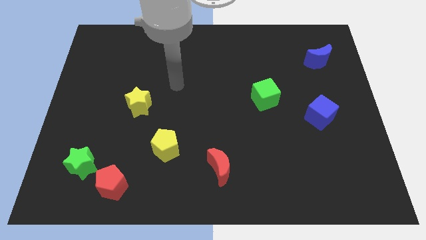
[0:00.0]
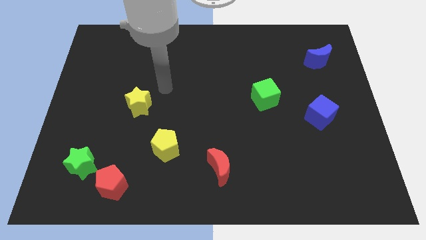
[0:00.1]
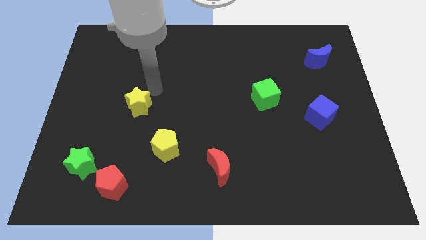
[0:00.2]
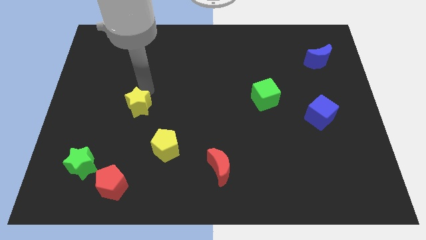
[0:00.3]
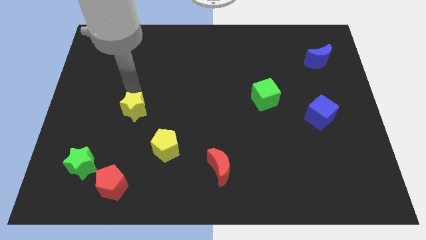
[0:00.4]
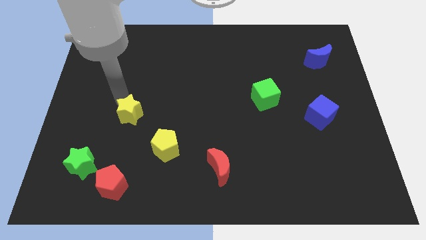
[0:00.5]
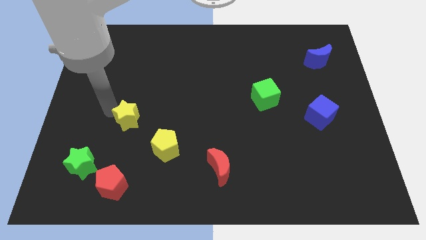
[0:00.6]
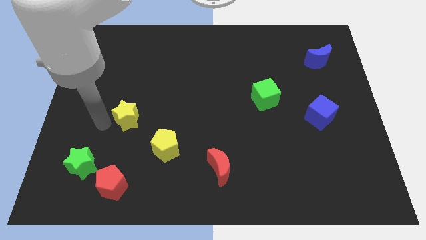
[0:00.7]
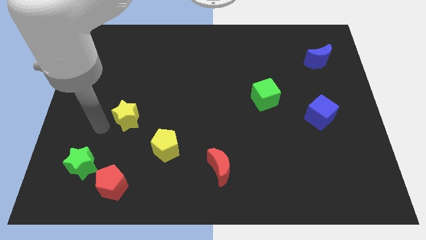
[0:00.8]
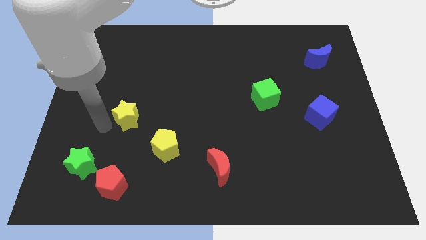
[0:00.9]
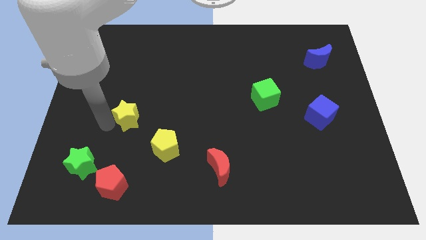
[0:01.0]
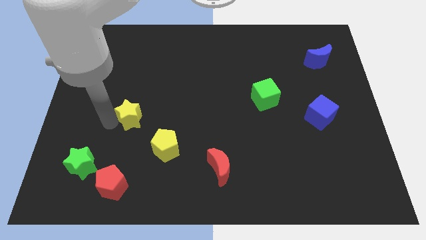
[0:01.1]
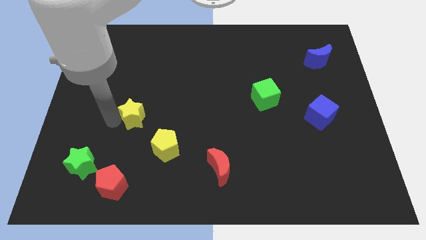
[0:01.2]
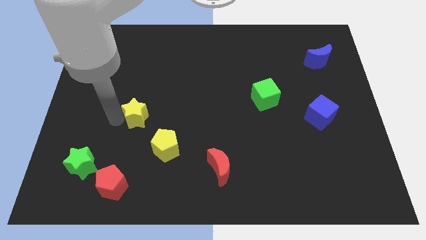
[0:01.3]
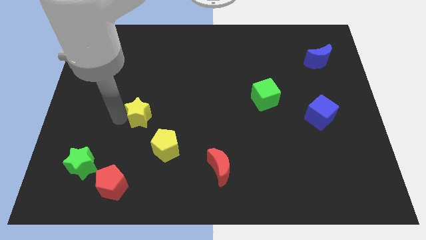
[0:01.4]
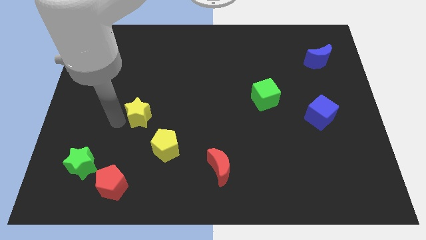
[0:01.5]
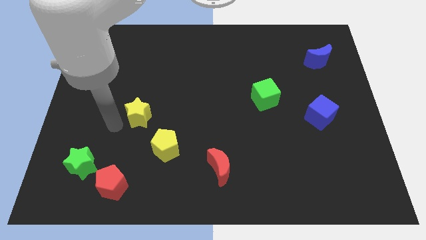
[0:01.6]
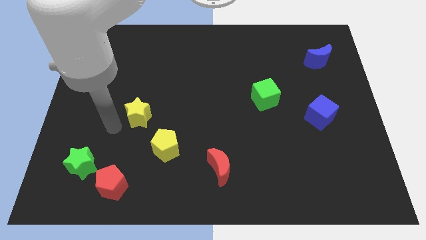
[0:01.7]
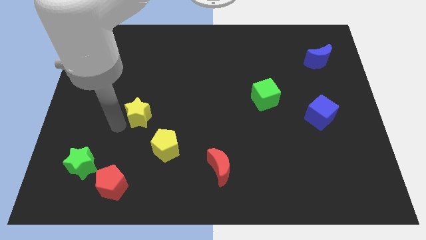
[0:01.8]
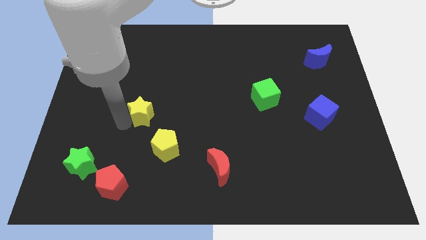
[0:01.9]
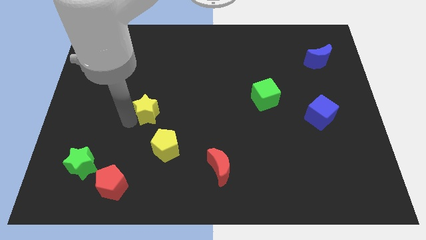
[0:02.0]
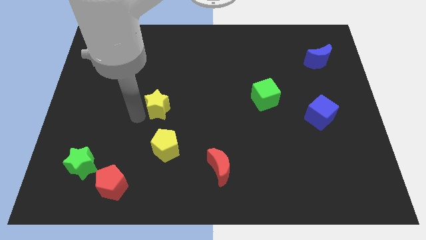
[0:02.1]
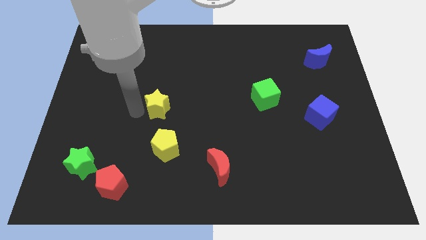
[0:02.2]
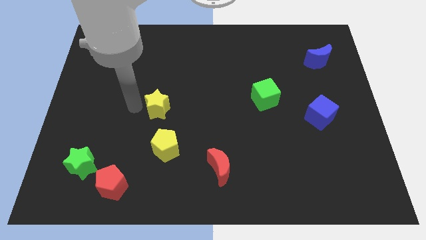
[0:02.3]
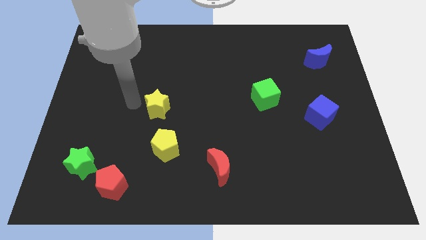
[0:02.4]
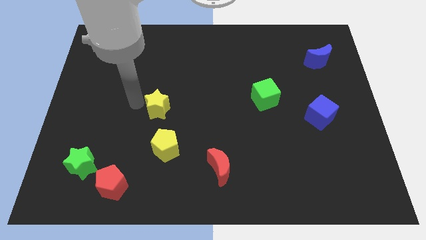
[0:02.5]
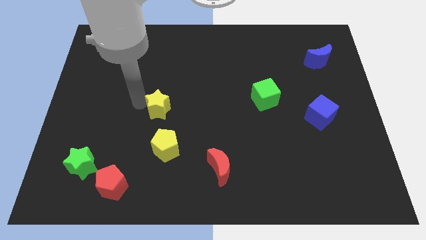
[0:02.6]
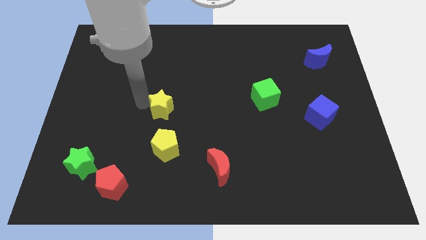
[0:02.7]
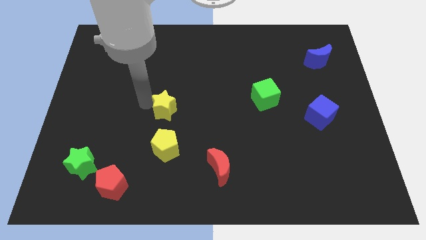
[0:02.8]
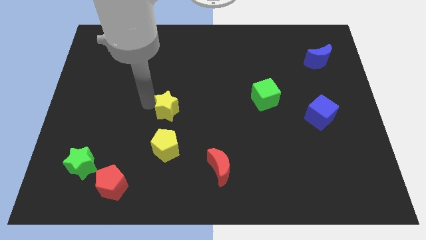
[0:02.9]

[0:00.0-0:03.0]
slide the yellow star a little bit to the right

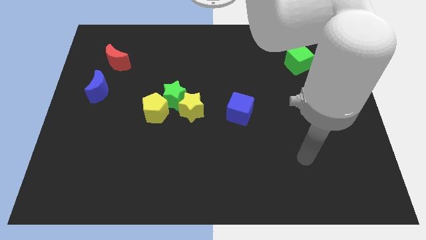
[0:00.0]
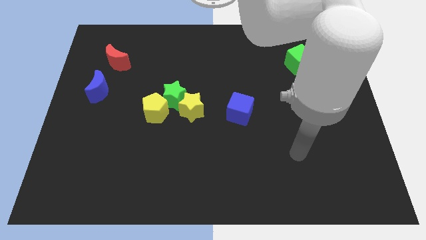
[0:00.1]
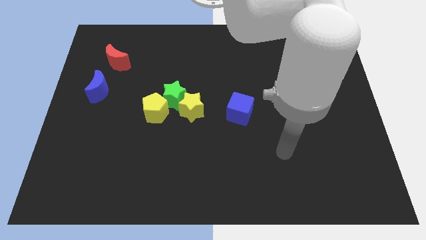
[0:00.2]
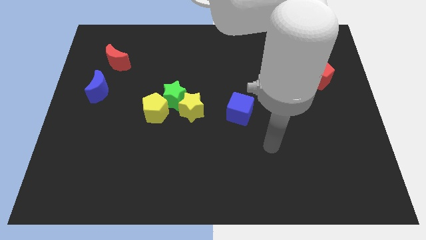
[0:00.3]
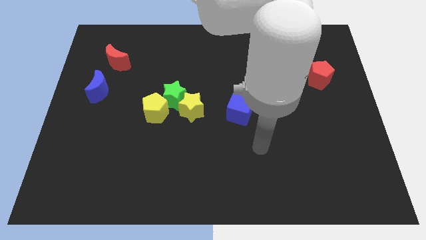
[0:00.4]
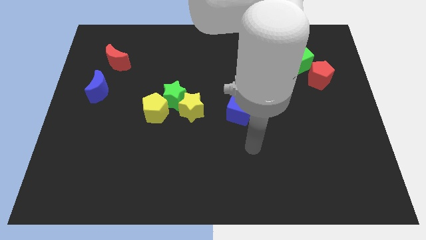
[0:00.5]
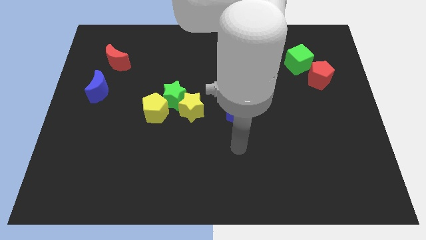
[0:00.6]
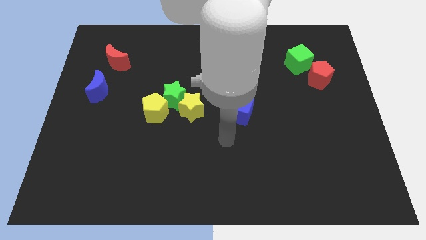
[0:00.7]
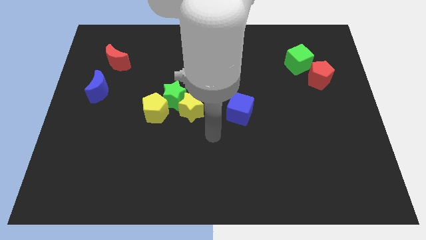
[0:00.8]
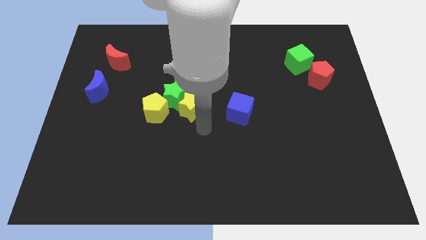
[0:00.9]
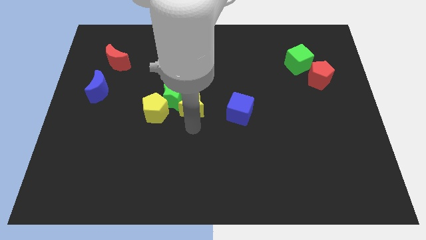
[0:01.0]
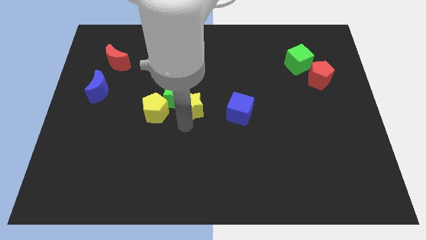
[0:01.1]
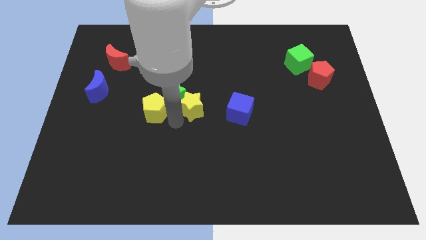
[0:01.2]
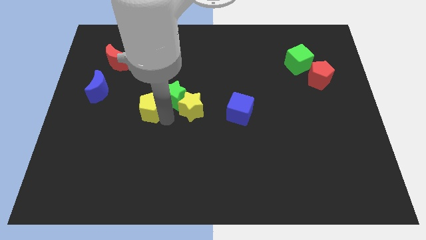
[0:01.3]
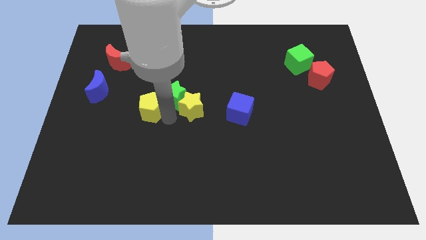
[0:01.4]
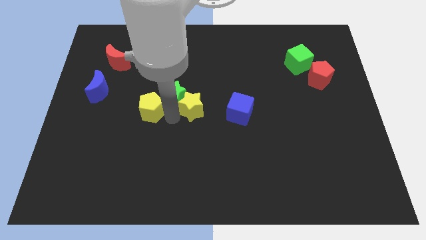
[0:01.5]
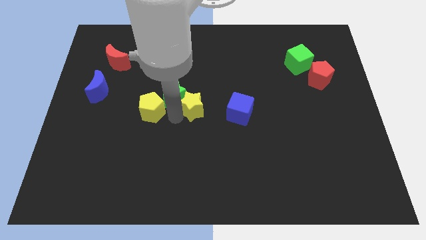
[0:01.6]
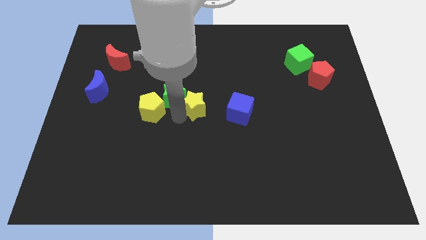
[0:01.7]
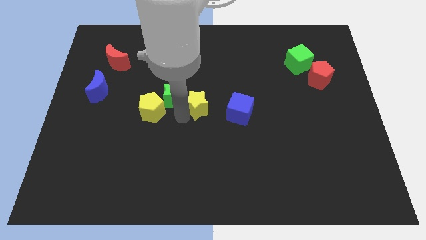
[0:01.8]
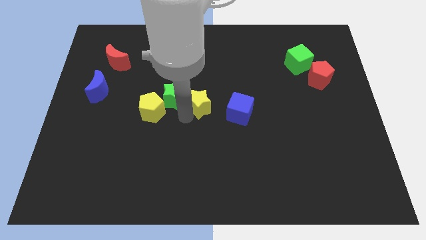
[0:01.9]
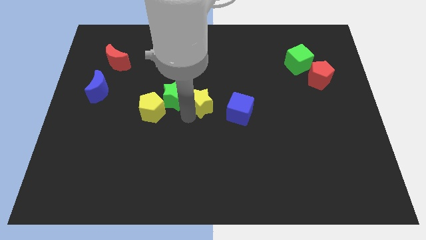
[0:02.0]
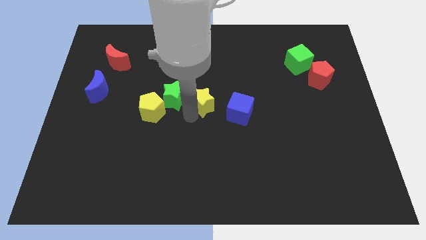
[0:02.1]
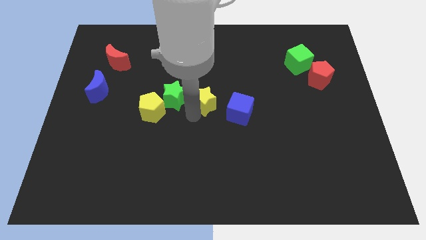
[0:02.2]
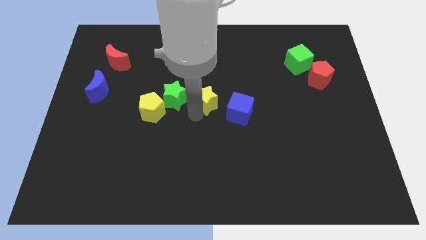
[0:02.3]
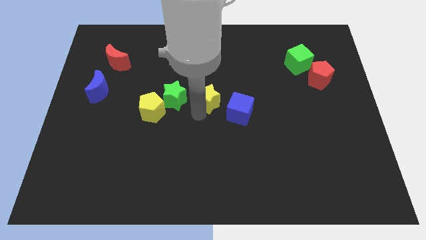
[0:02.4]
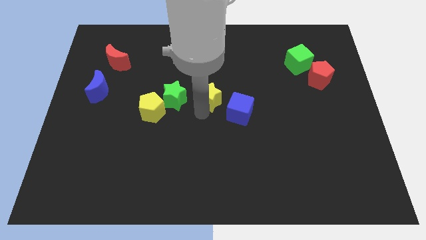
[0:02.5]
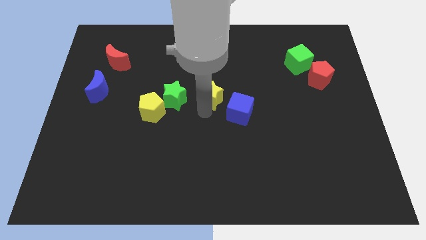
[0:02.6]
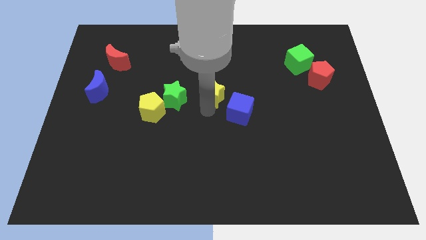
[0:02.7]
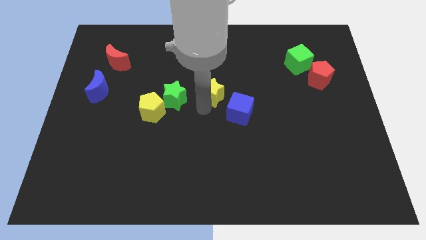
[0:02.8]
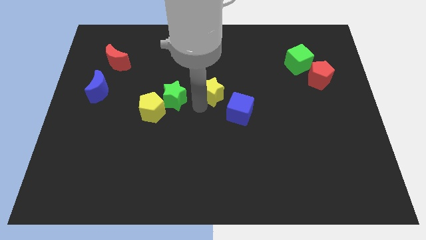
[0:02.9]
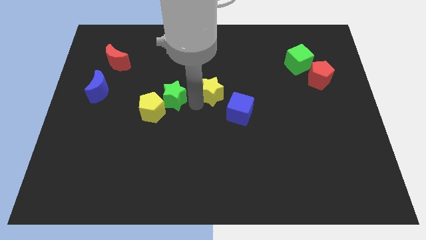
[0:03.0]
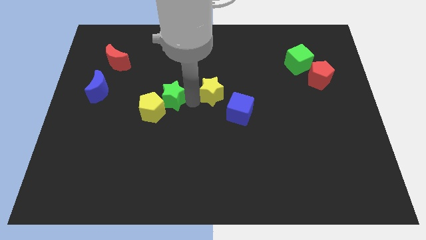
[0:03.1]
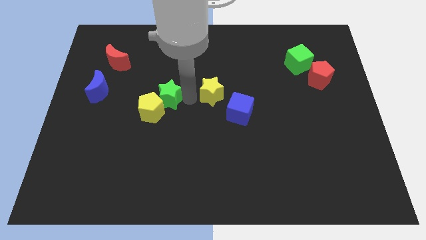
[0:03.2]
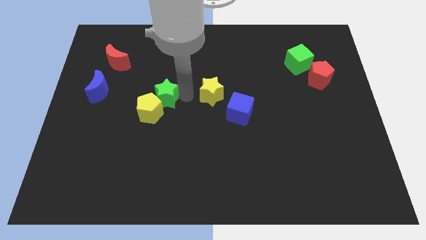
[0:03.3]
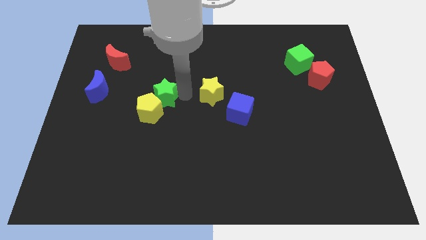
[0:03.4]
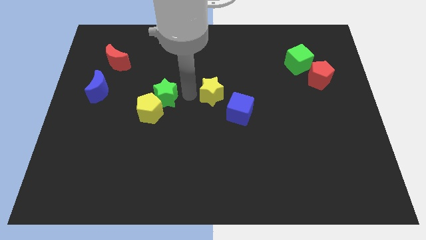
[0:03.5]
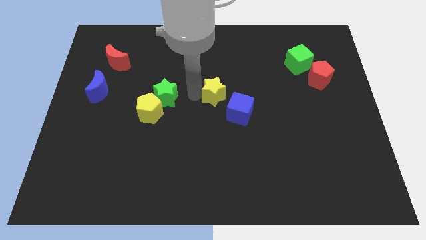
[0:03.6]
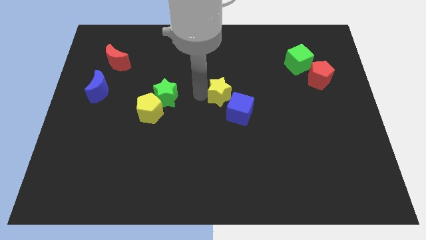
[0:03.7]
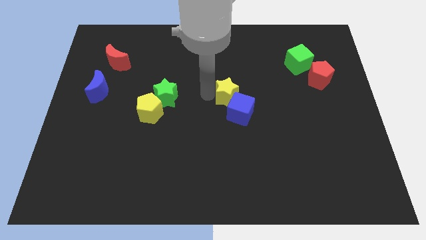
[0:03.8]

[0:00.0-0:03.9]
slightly slide the yellow star right

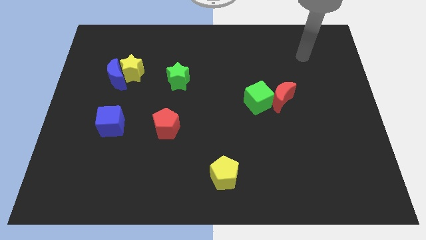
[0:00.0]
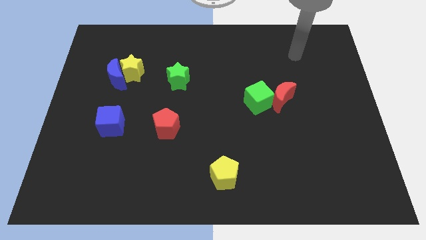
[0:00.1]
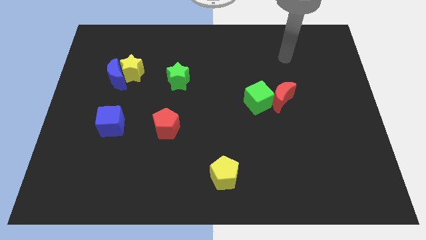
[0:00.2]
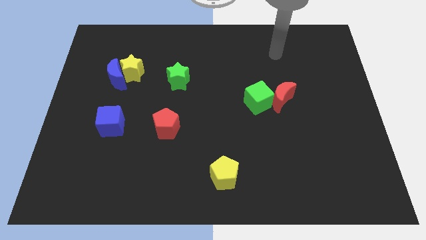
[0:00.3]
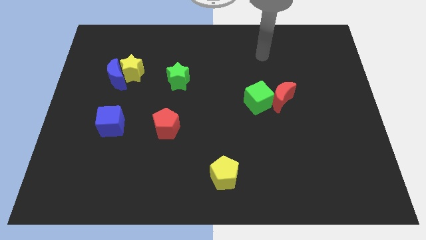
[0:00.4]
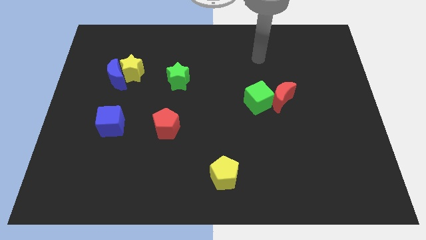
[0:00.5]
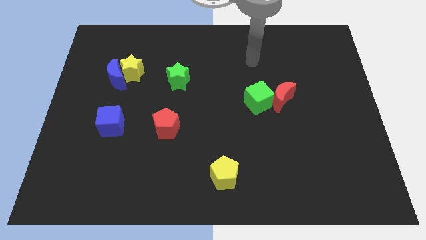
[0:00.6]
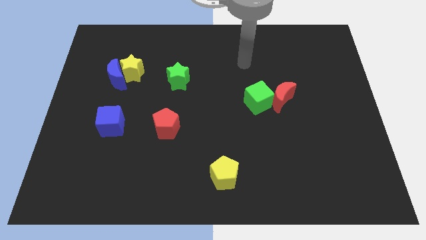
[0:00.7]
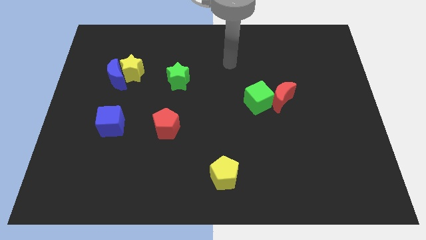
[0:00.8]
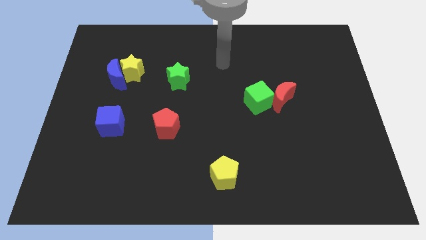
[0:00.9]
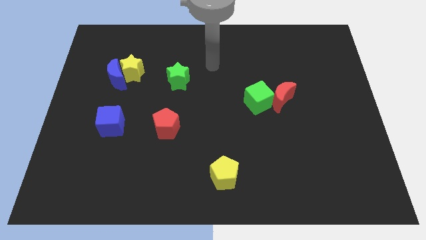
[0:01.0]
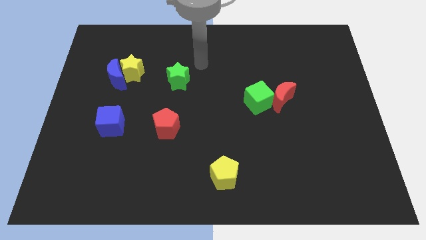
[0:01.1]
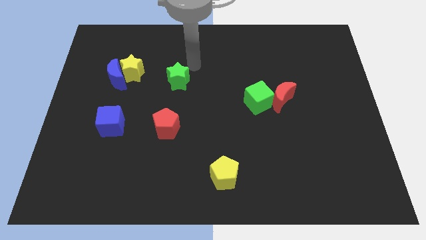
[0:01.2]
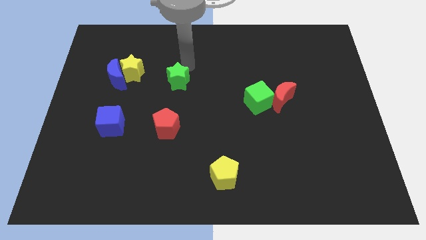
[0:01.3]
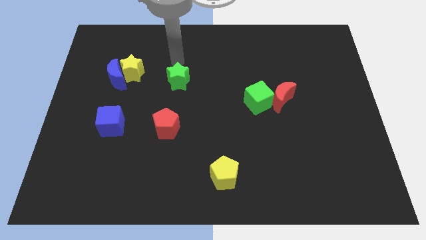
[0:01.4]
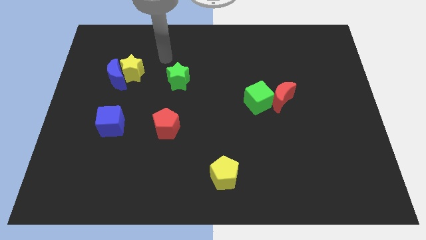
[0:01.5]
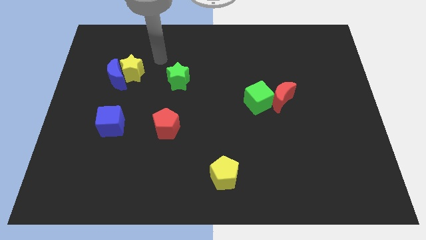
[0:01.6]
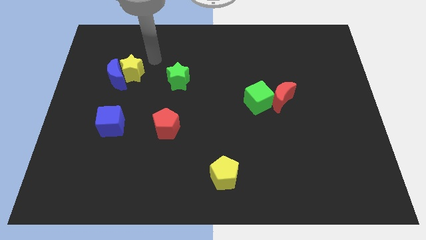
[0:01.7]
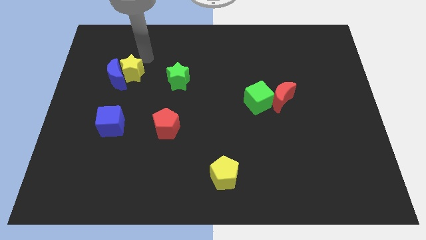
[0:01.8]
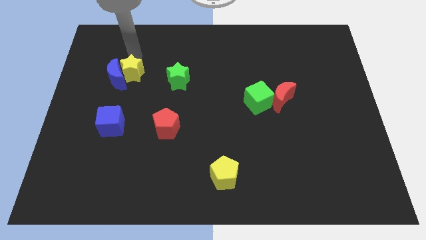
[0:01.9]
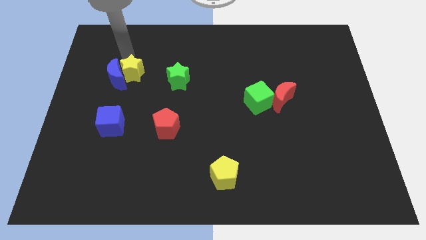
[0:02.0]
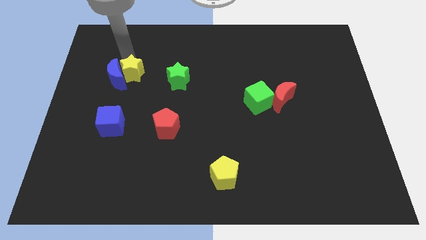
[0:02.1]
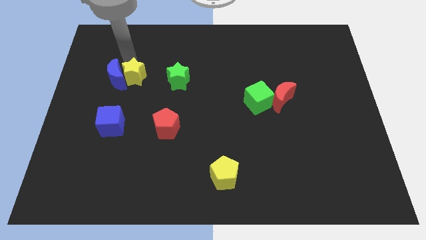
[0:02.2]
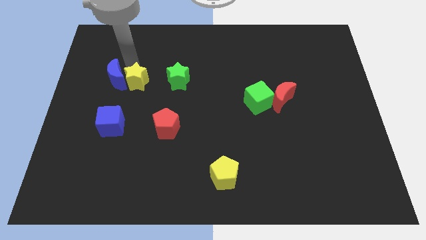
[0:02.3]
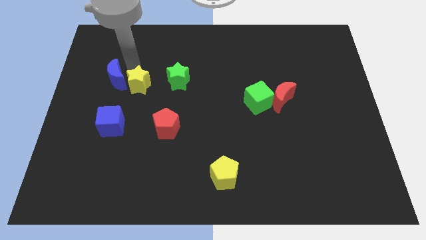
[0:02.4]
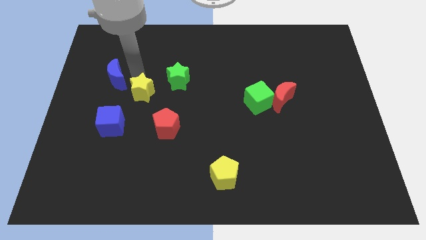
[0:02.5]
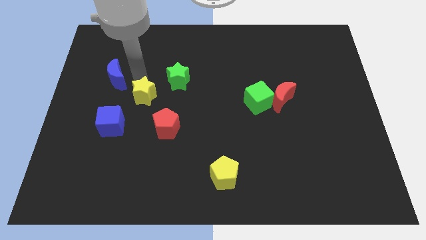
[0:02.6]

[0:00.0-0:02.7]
move the yellow star down somewhat
